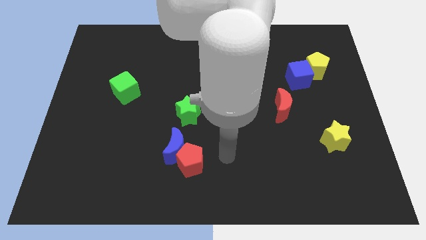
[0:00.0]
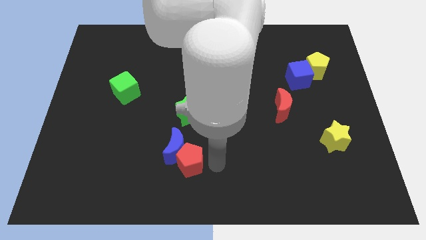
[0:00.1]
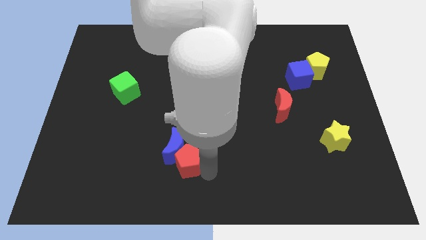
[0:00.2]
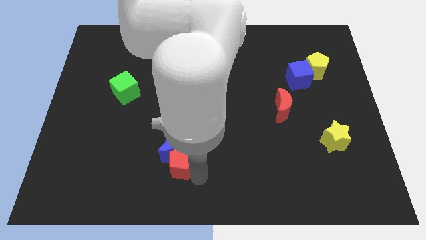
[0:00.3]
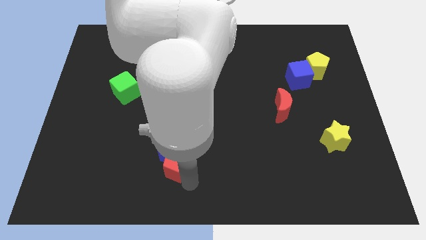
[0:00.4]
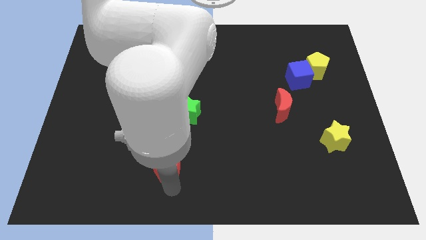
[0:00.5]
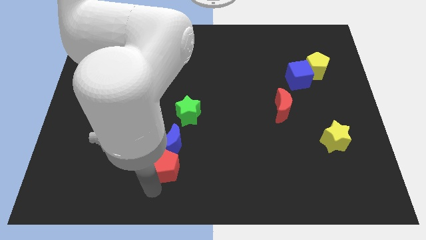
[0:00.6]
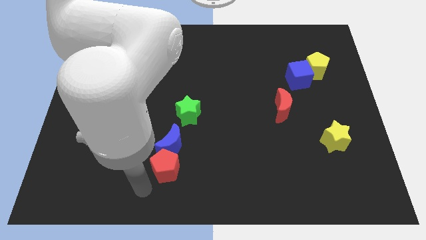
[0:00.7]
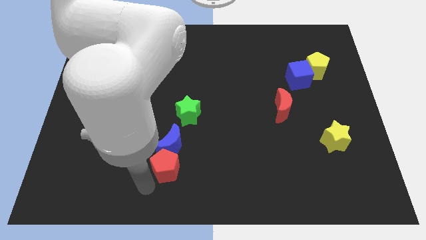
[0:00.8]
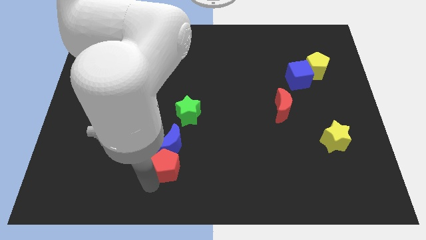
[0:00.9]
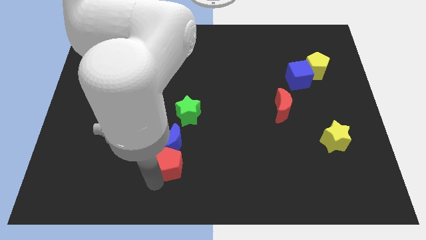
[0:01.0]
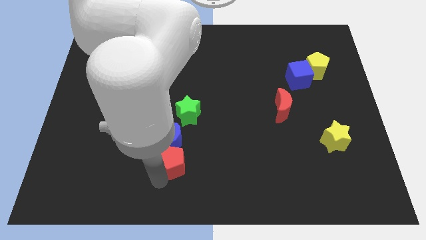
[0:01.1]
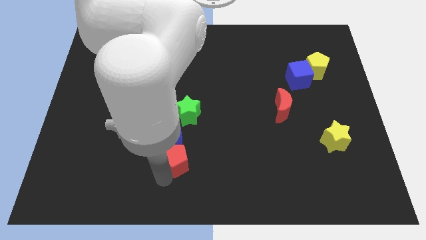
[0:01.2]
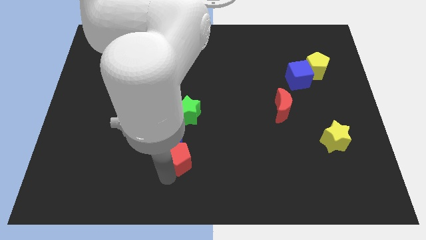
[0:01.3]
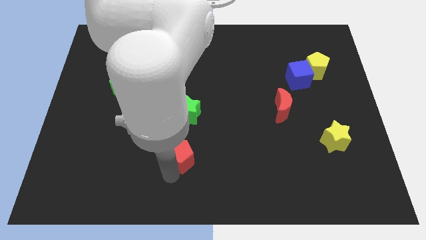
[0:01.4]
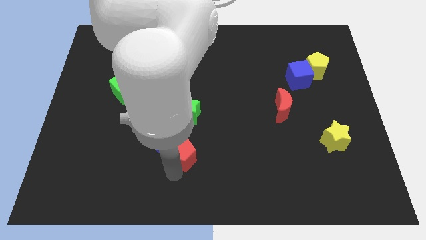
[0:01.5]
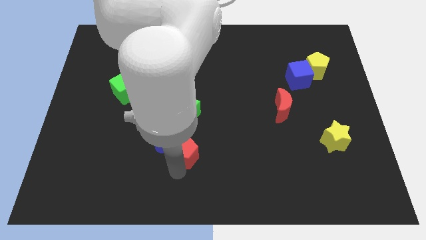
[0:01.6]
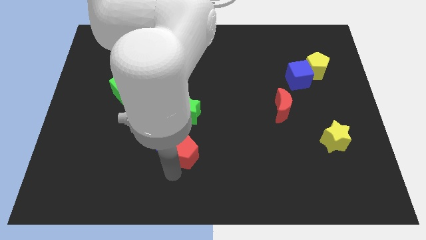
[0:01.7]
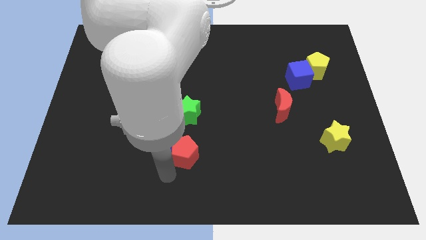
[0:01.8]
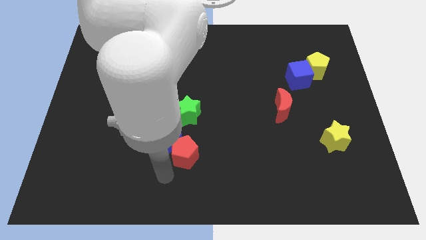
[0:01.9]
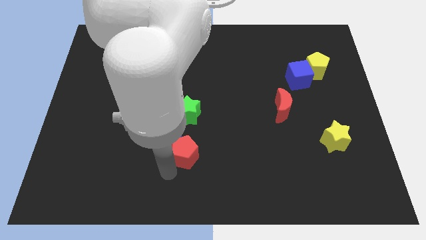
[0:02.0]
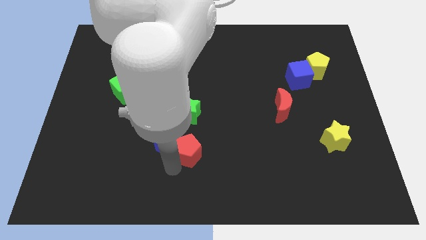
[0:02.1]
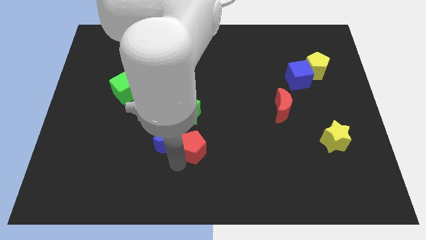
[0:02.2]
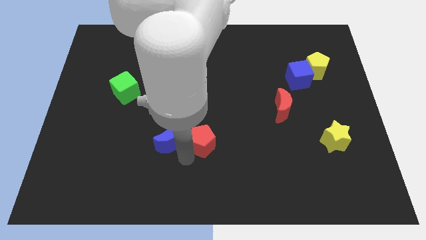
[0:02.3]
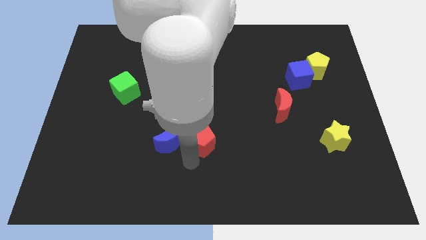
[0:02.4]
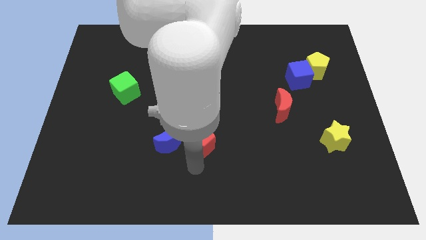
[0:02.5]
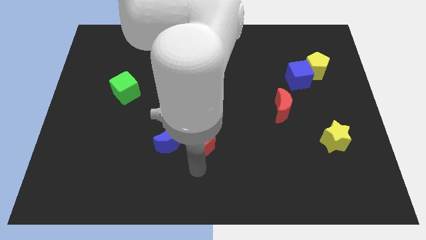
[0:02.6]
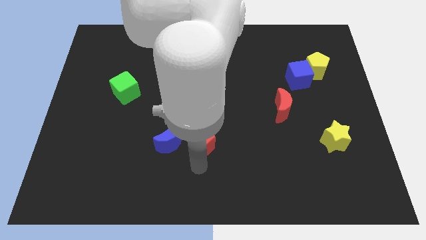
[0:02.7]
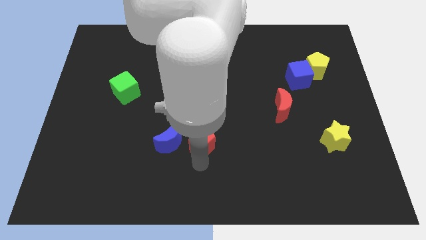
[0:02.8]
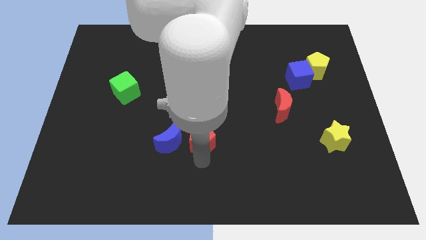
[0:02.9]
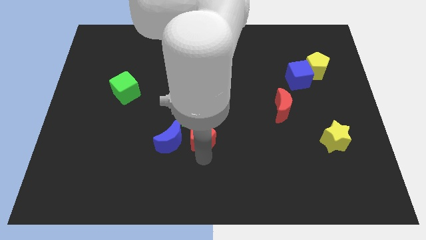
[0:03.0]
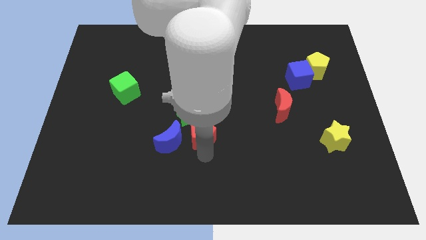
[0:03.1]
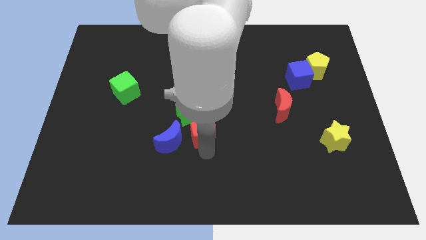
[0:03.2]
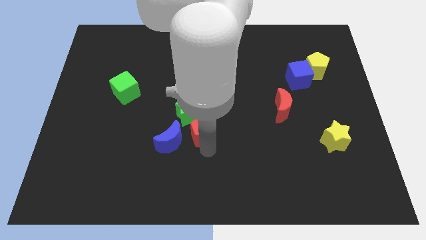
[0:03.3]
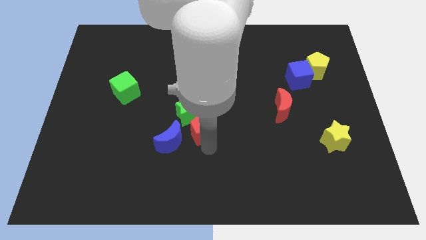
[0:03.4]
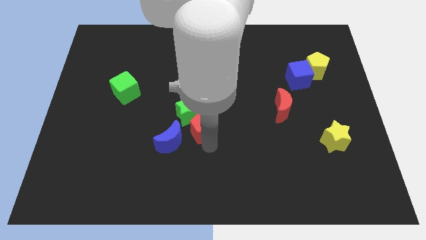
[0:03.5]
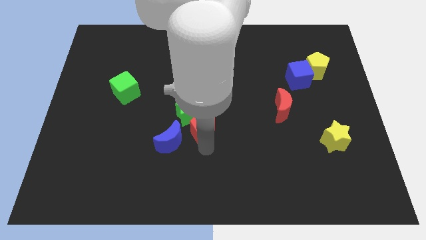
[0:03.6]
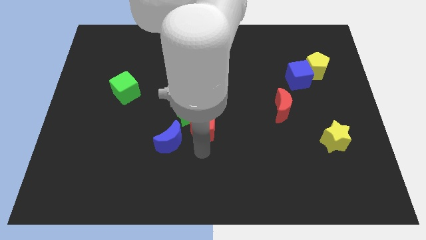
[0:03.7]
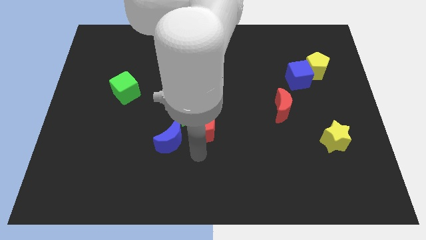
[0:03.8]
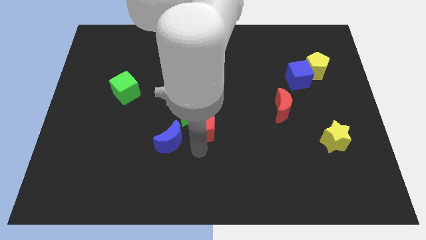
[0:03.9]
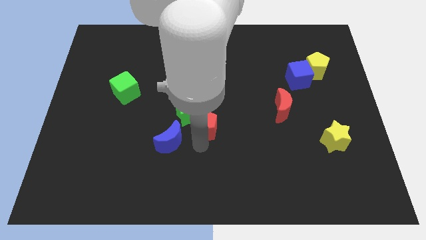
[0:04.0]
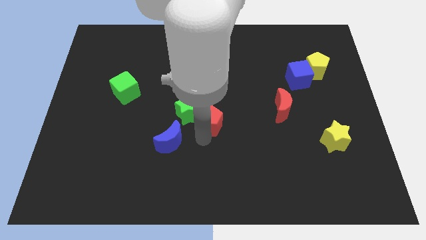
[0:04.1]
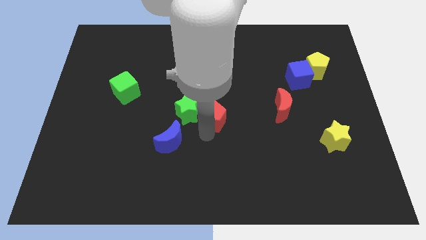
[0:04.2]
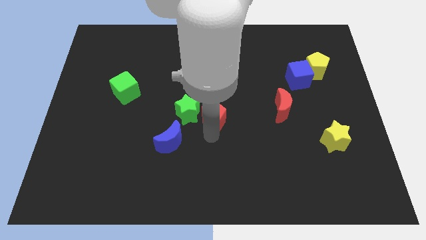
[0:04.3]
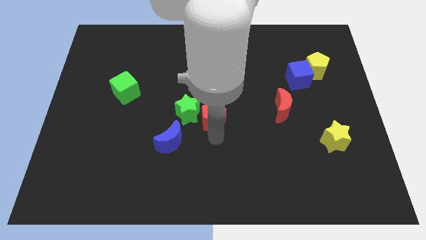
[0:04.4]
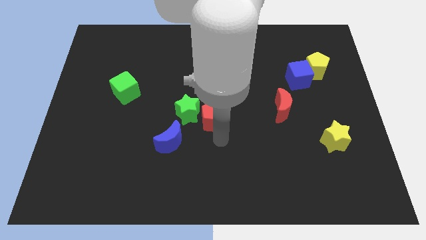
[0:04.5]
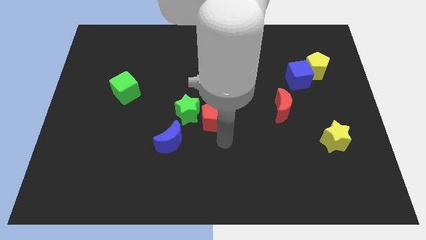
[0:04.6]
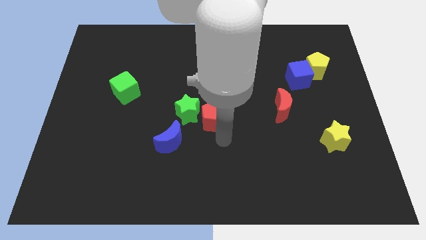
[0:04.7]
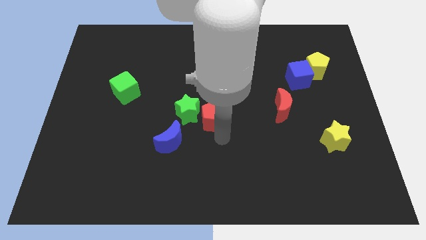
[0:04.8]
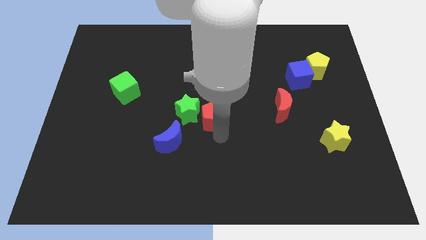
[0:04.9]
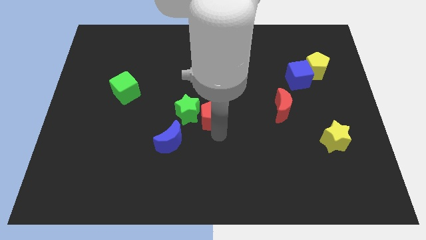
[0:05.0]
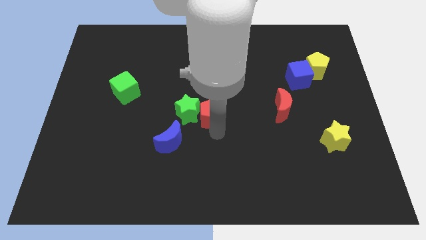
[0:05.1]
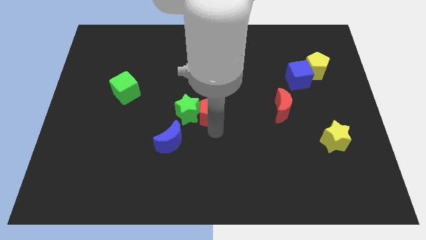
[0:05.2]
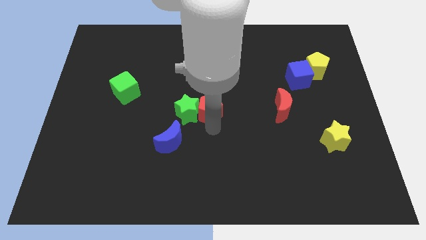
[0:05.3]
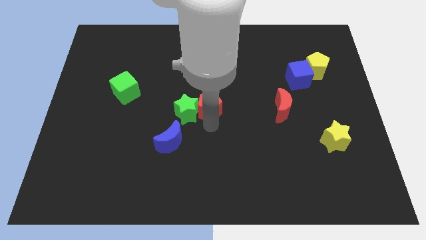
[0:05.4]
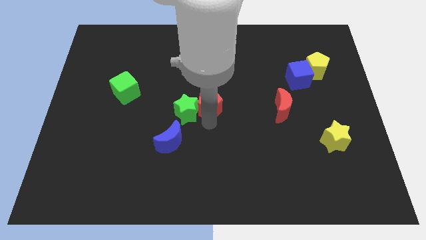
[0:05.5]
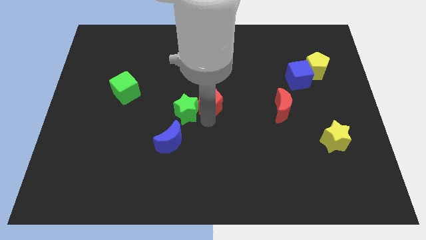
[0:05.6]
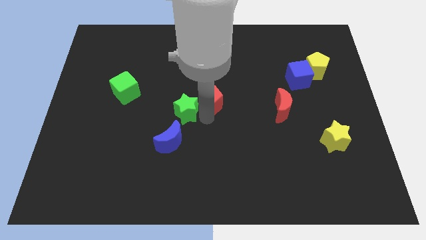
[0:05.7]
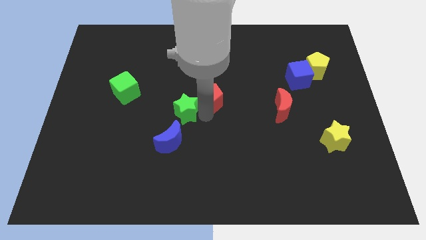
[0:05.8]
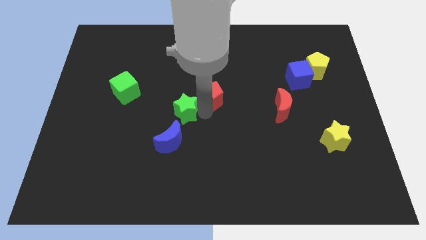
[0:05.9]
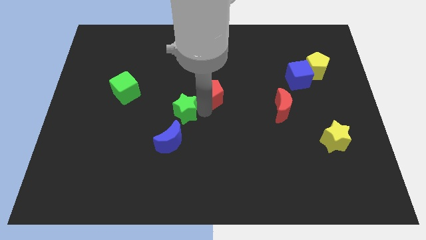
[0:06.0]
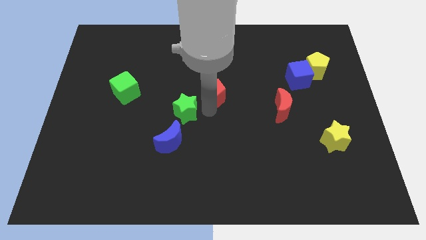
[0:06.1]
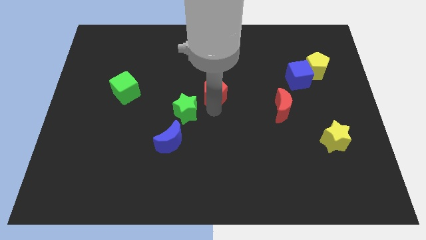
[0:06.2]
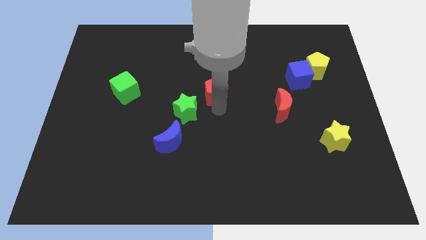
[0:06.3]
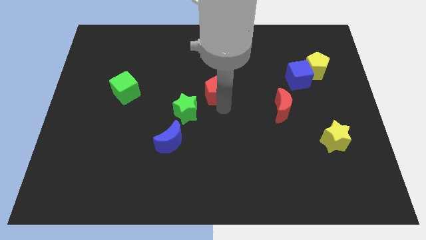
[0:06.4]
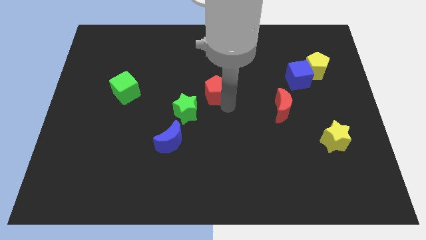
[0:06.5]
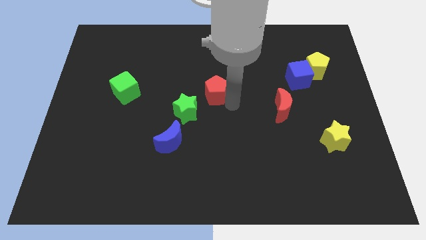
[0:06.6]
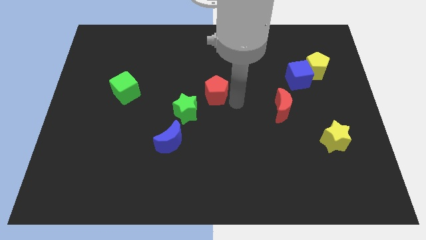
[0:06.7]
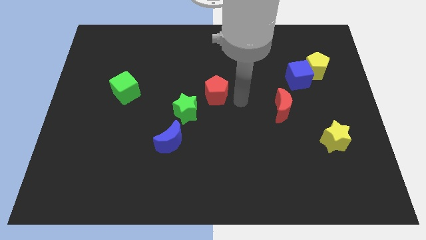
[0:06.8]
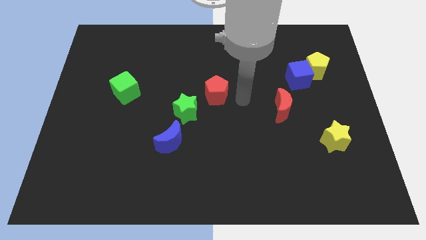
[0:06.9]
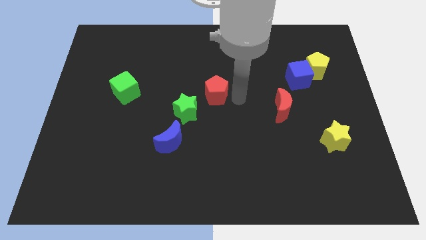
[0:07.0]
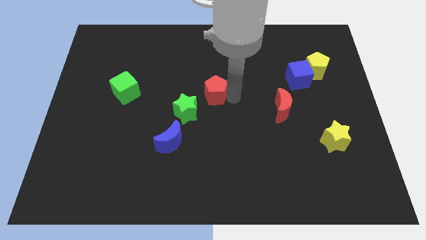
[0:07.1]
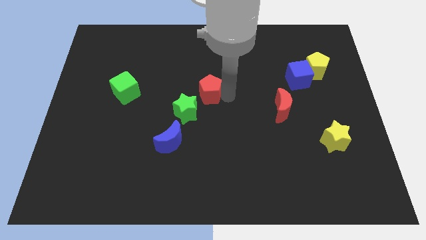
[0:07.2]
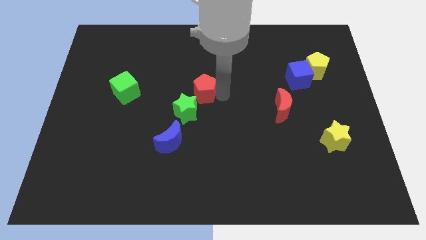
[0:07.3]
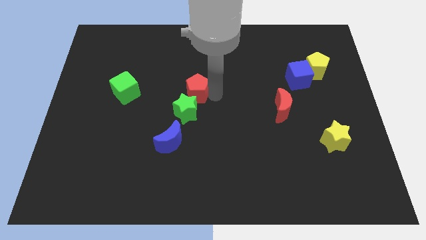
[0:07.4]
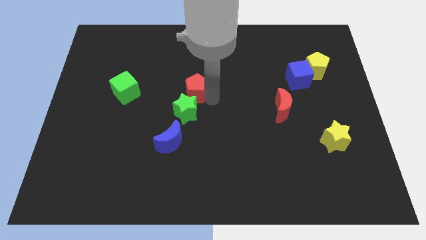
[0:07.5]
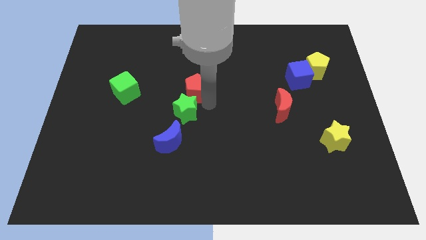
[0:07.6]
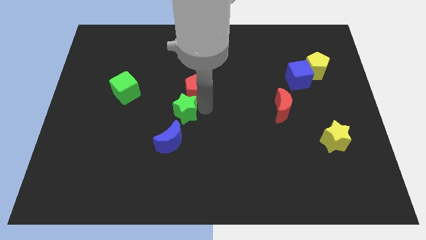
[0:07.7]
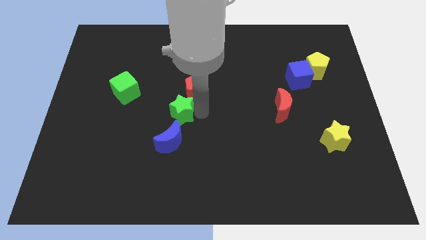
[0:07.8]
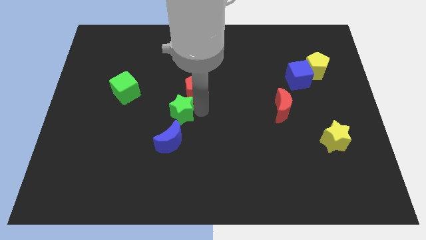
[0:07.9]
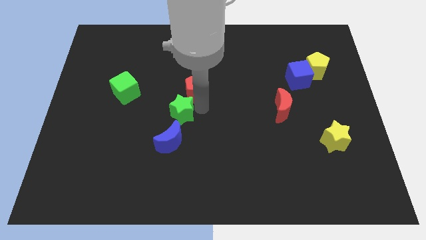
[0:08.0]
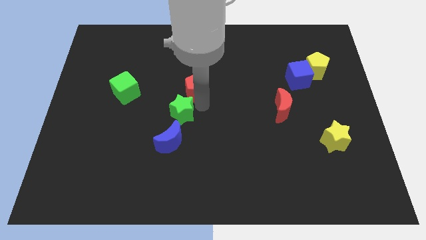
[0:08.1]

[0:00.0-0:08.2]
push the red pentagon up
